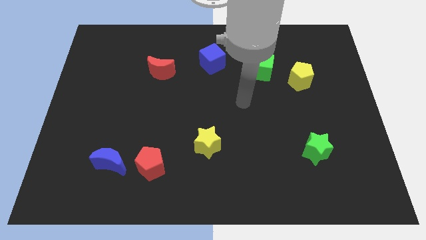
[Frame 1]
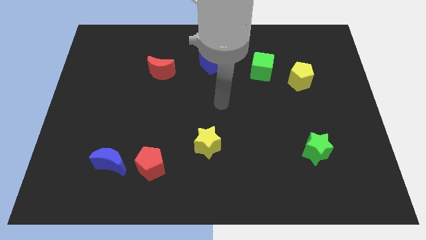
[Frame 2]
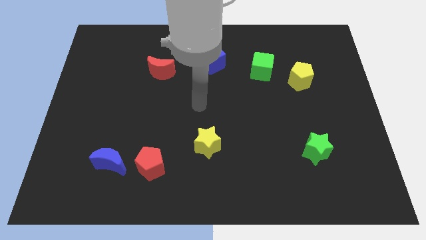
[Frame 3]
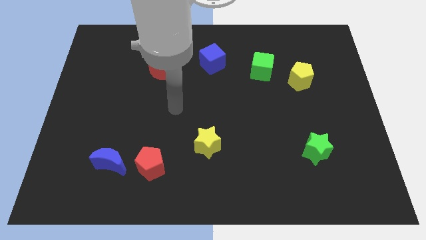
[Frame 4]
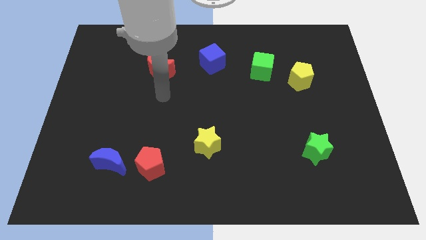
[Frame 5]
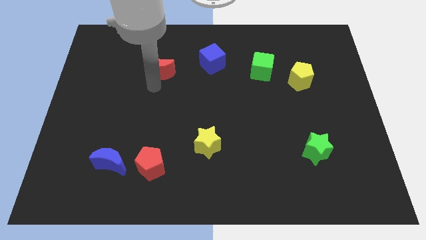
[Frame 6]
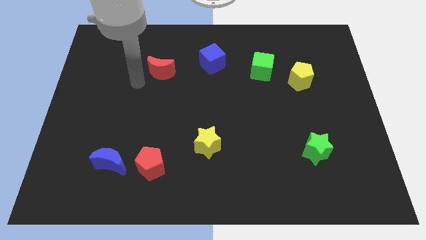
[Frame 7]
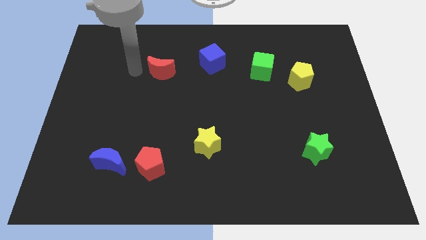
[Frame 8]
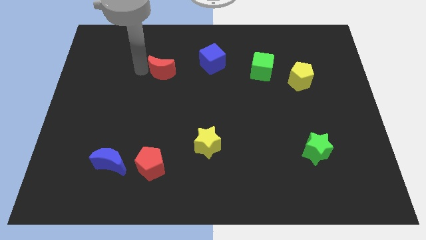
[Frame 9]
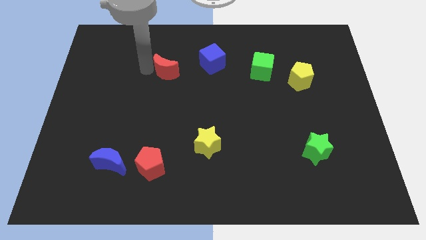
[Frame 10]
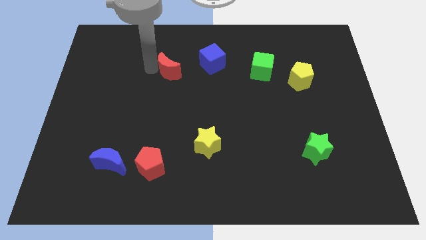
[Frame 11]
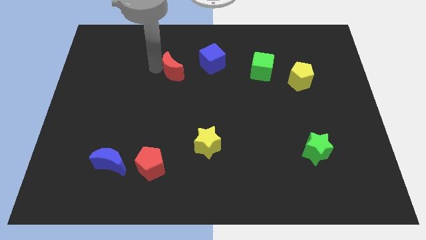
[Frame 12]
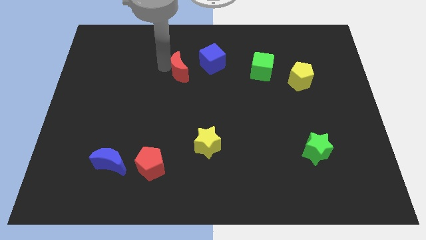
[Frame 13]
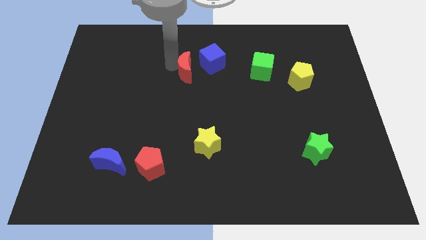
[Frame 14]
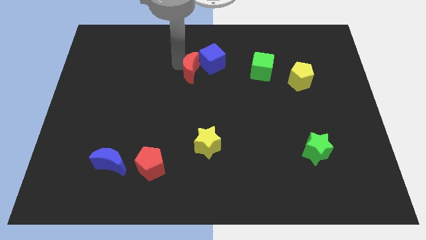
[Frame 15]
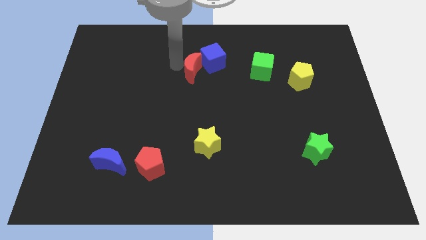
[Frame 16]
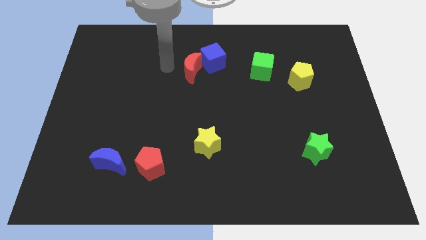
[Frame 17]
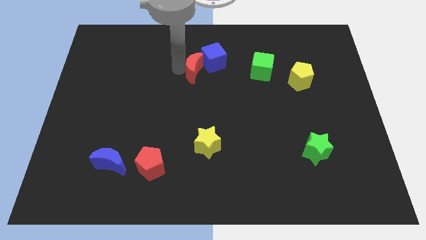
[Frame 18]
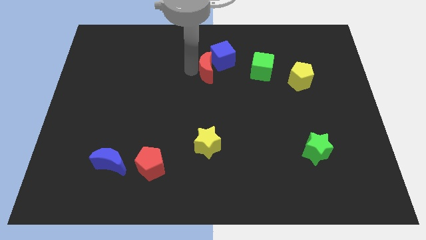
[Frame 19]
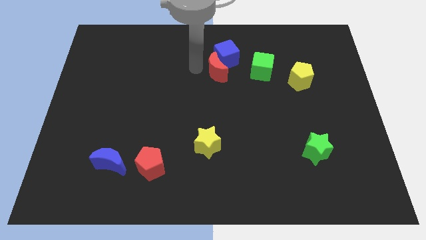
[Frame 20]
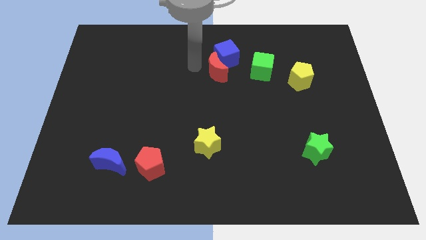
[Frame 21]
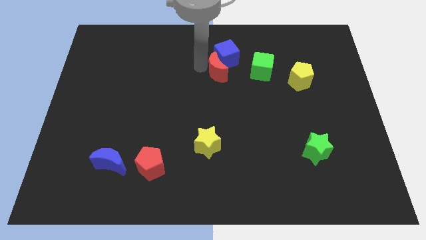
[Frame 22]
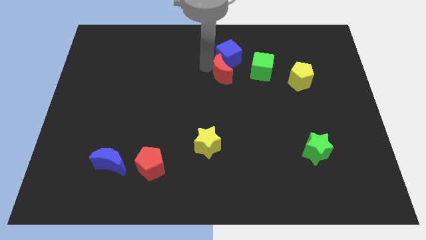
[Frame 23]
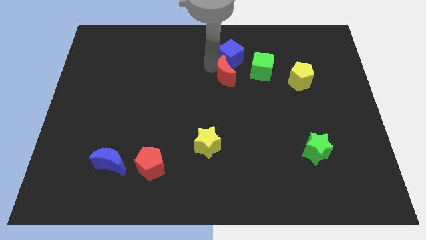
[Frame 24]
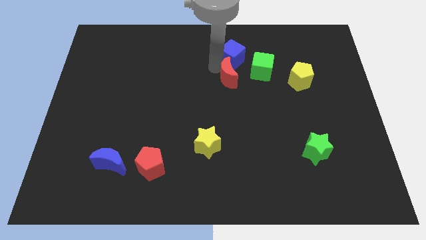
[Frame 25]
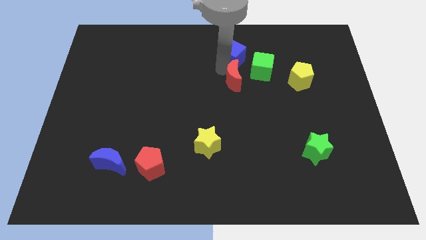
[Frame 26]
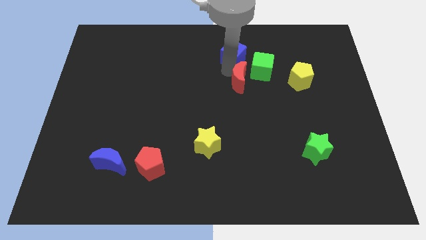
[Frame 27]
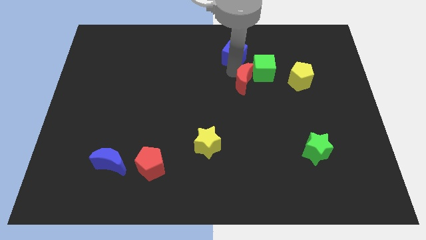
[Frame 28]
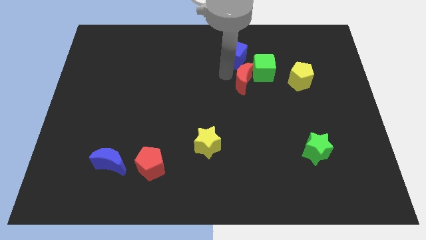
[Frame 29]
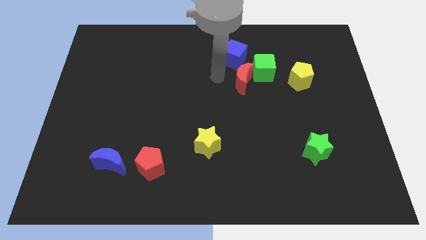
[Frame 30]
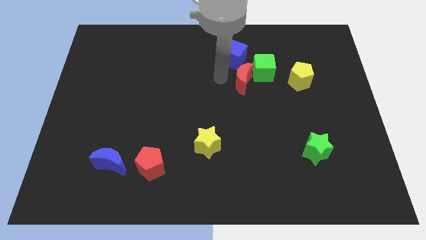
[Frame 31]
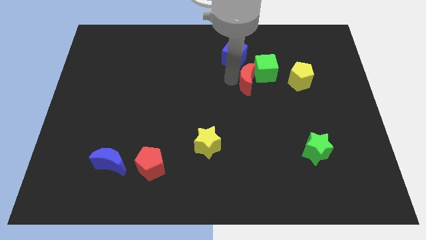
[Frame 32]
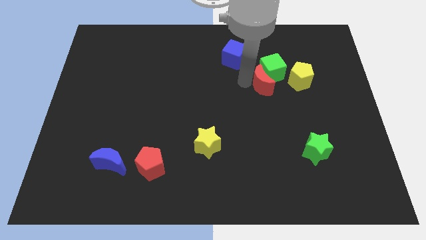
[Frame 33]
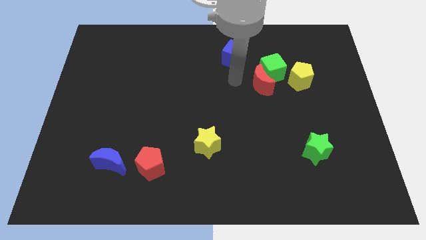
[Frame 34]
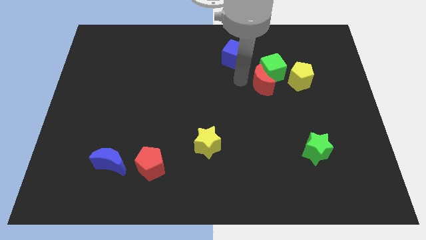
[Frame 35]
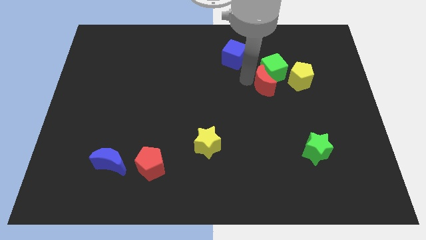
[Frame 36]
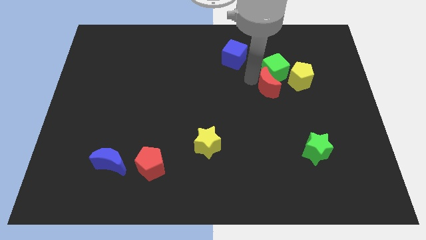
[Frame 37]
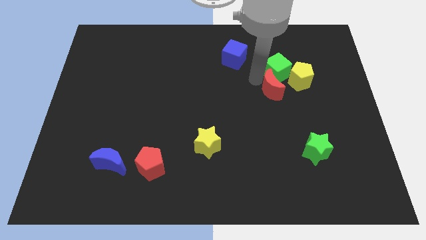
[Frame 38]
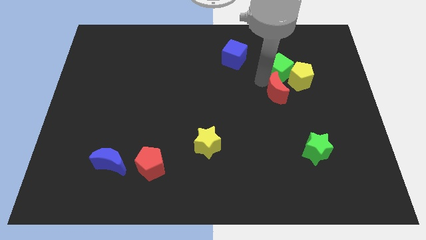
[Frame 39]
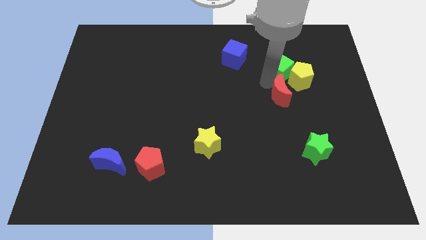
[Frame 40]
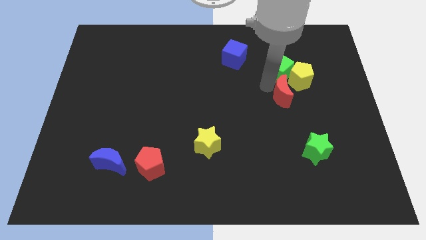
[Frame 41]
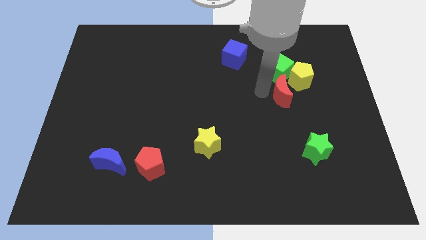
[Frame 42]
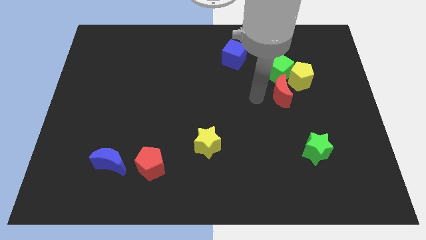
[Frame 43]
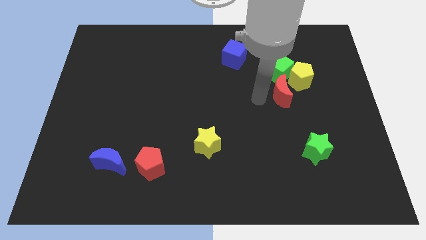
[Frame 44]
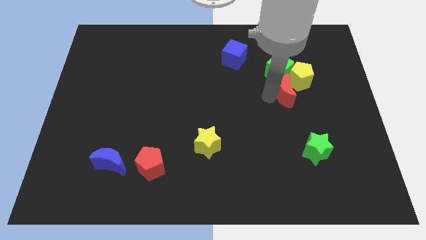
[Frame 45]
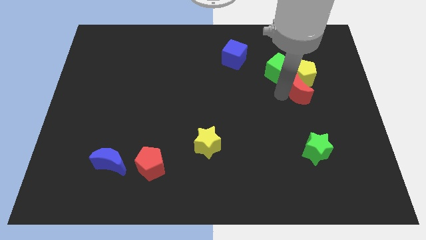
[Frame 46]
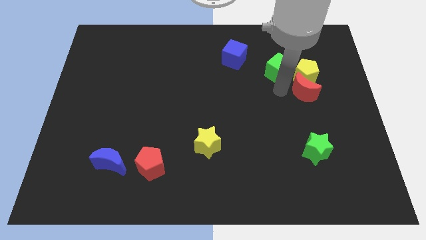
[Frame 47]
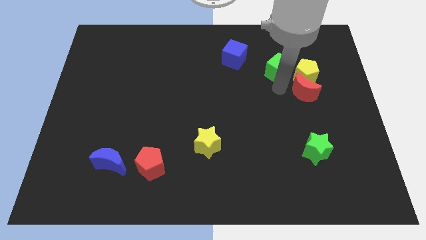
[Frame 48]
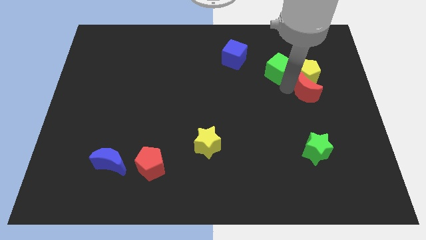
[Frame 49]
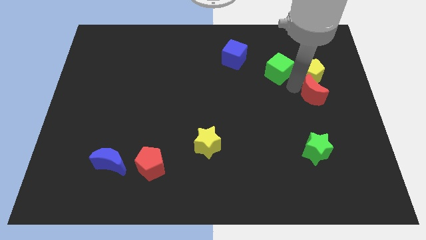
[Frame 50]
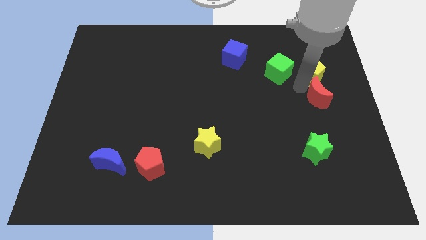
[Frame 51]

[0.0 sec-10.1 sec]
move the red moon to the right side

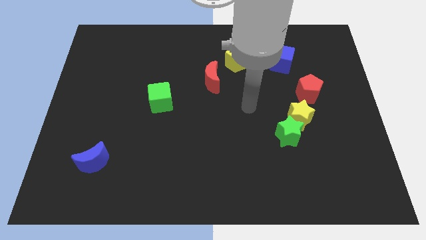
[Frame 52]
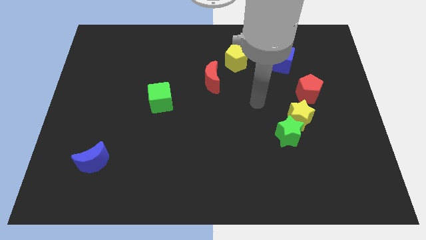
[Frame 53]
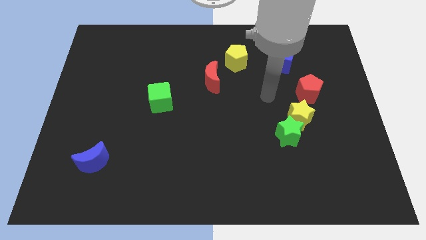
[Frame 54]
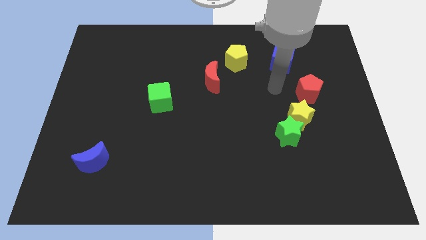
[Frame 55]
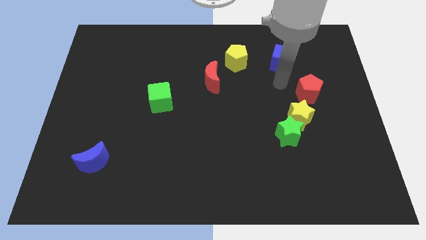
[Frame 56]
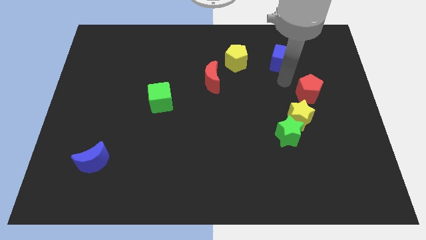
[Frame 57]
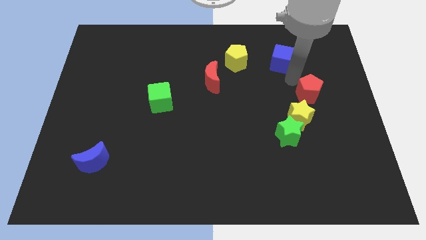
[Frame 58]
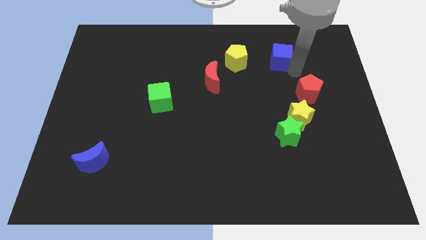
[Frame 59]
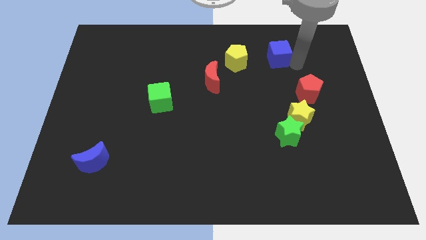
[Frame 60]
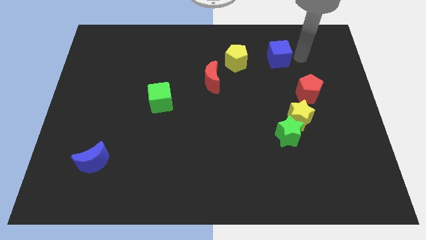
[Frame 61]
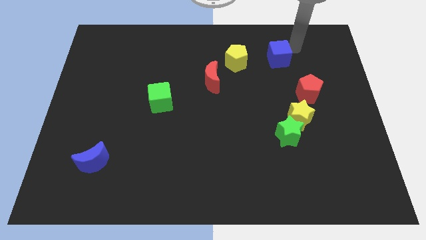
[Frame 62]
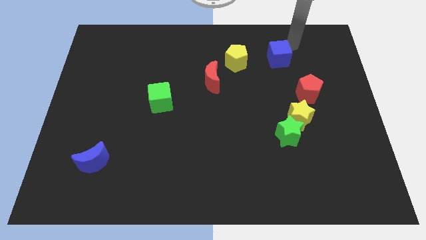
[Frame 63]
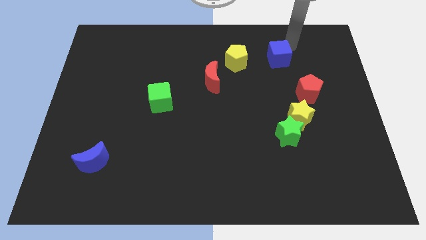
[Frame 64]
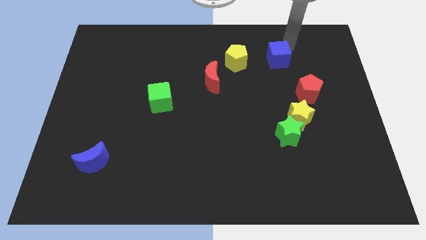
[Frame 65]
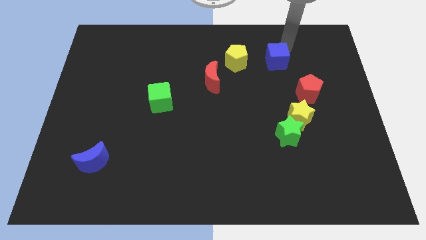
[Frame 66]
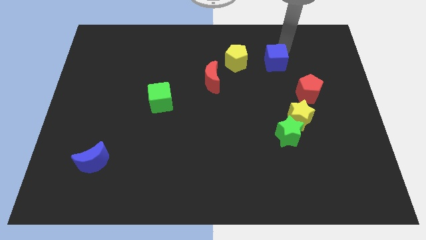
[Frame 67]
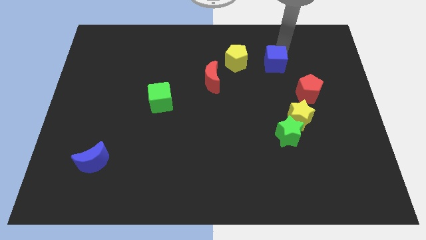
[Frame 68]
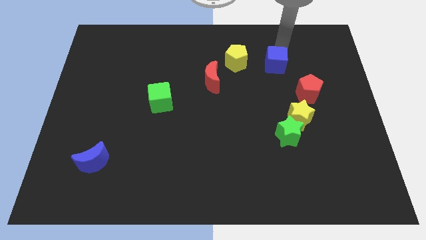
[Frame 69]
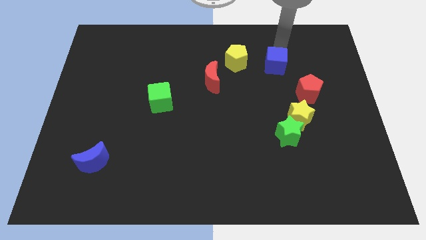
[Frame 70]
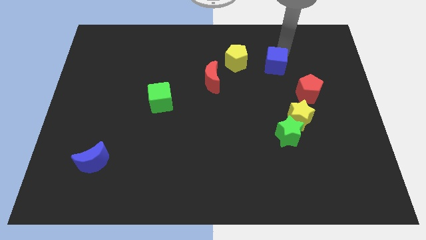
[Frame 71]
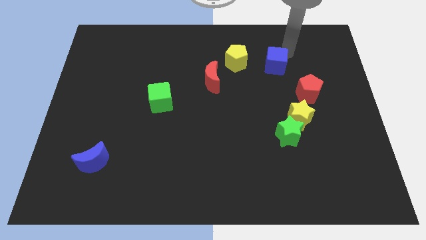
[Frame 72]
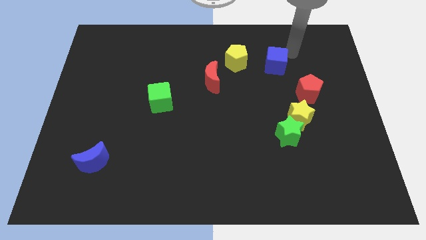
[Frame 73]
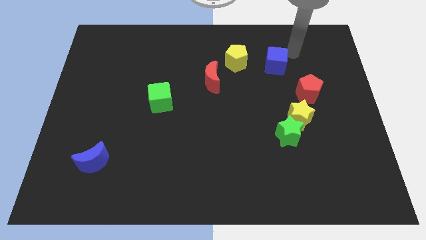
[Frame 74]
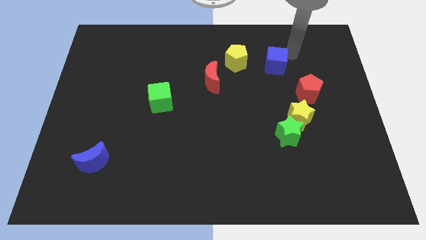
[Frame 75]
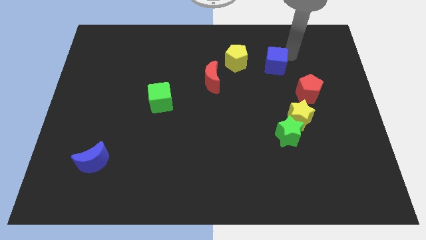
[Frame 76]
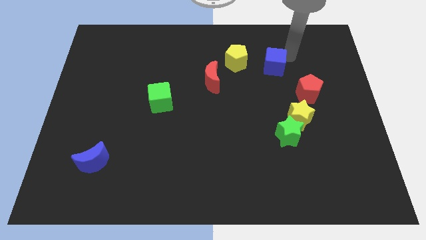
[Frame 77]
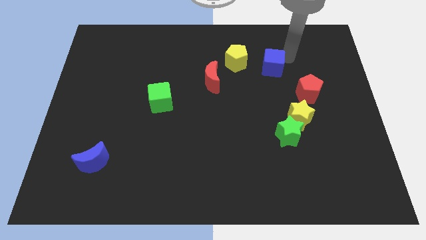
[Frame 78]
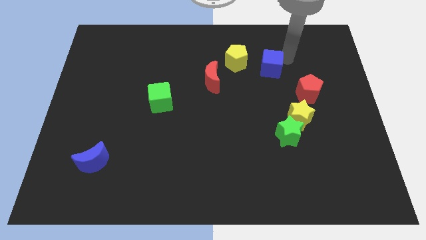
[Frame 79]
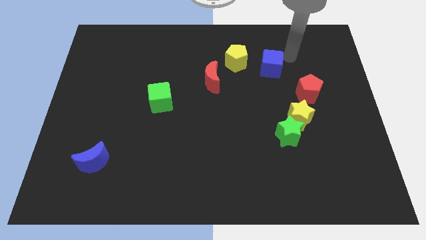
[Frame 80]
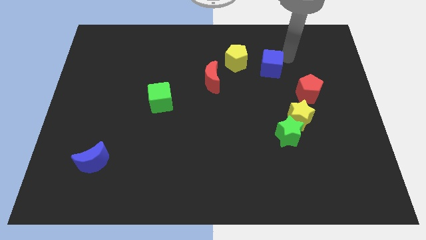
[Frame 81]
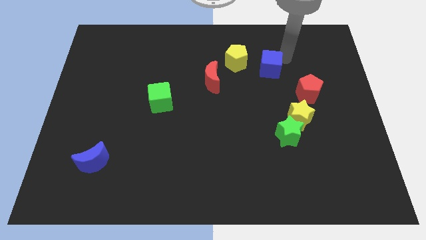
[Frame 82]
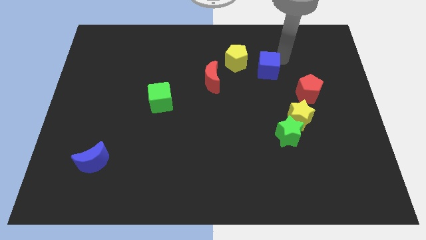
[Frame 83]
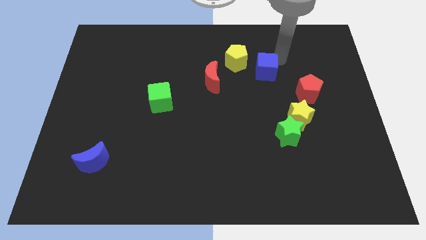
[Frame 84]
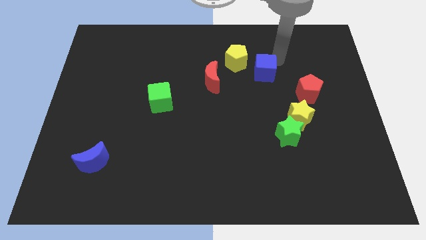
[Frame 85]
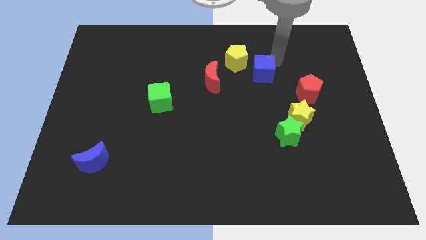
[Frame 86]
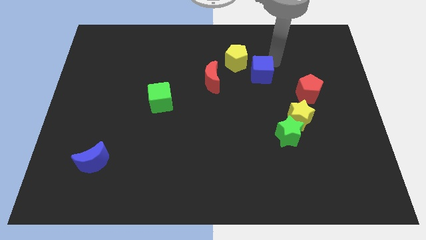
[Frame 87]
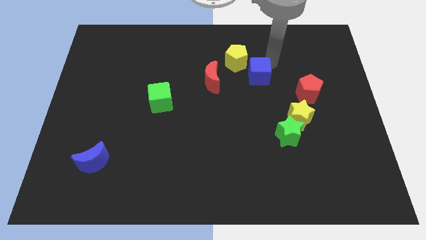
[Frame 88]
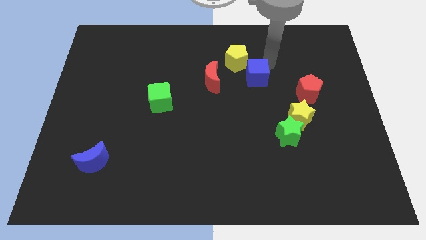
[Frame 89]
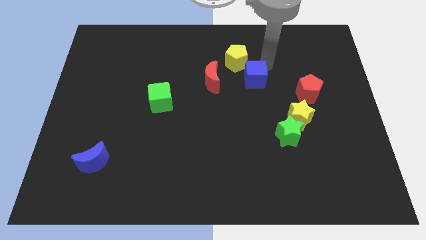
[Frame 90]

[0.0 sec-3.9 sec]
push the blue cube to the center of the board
